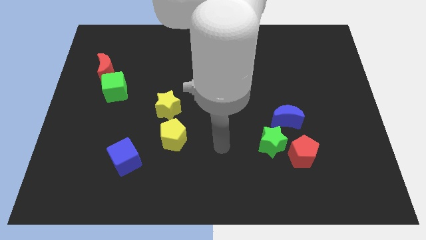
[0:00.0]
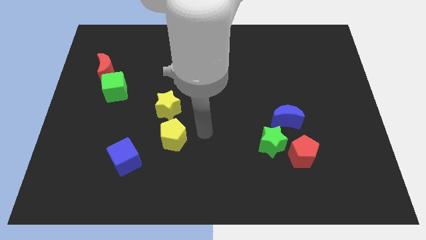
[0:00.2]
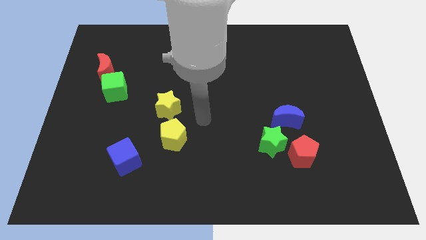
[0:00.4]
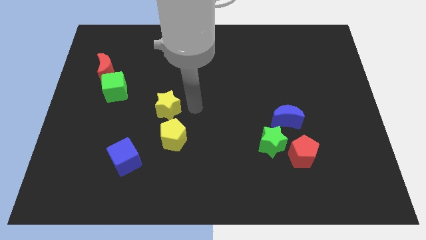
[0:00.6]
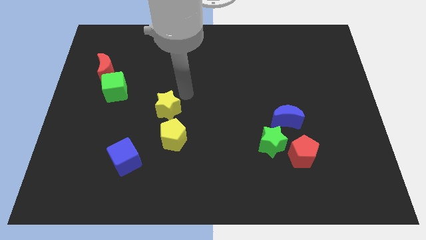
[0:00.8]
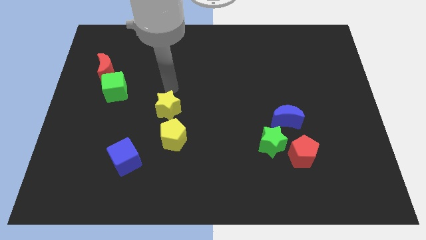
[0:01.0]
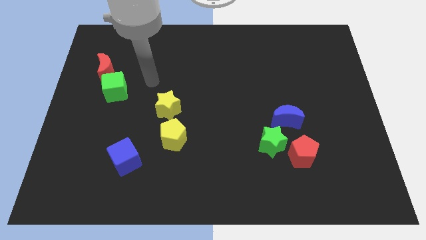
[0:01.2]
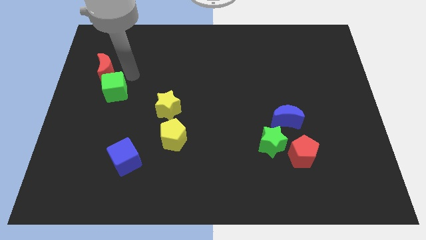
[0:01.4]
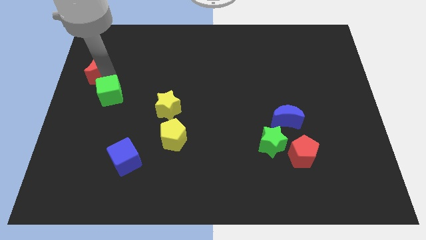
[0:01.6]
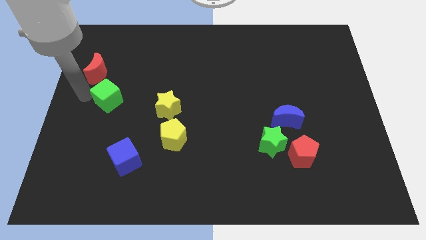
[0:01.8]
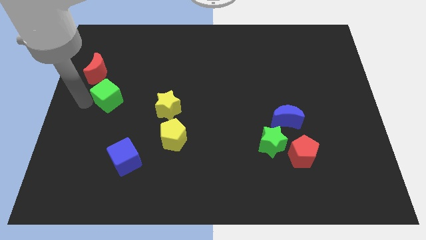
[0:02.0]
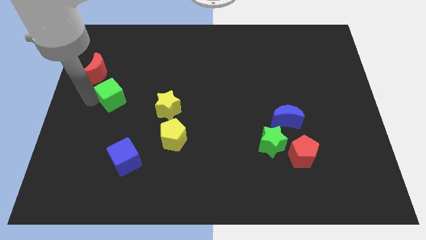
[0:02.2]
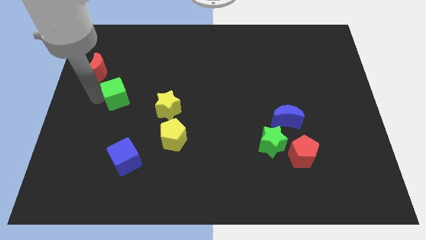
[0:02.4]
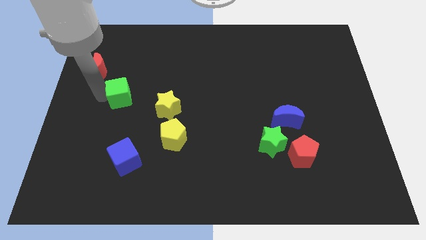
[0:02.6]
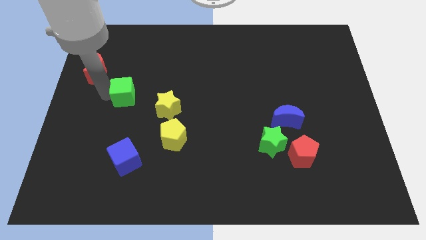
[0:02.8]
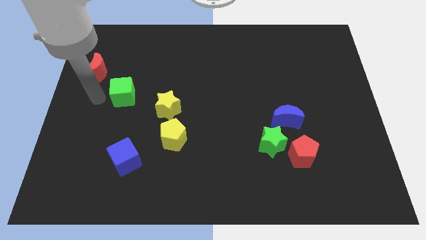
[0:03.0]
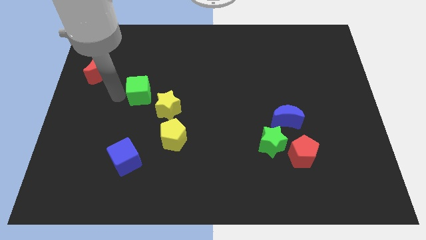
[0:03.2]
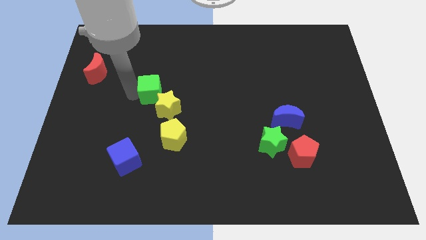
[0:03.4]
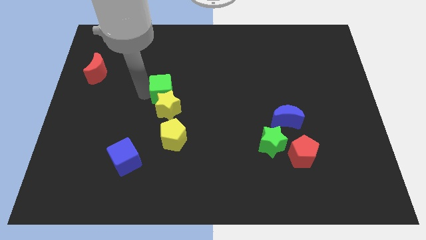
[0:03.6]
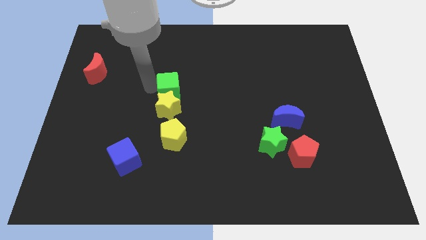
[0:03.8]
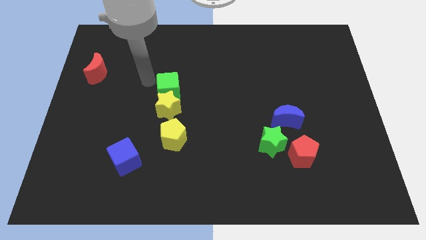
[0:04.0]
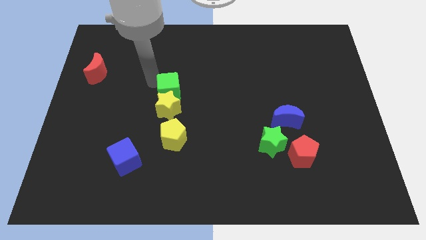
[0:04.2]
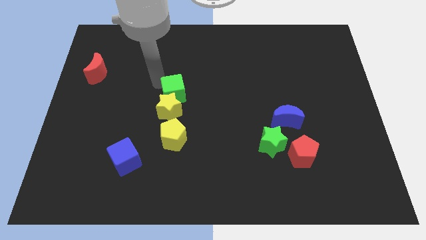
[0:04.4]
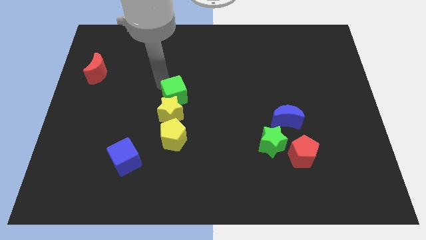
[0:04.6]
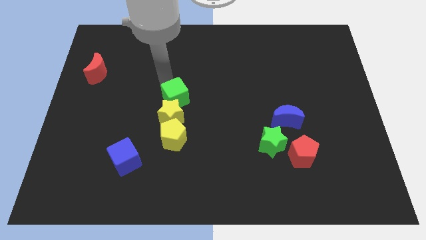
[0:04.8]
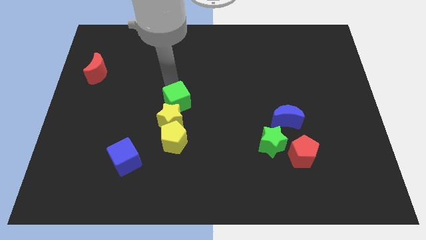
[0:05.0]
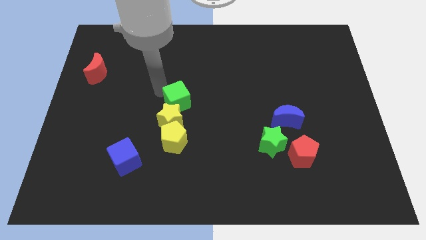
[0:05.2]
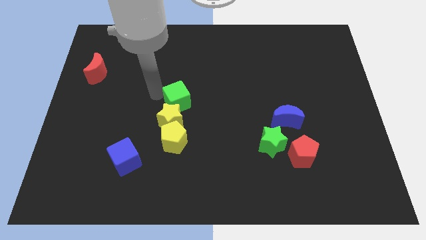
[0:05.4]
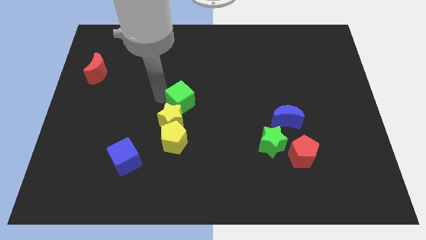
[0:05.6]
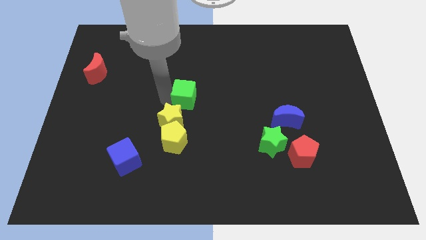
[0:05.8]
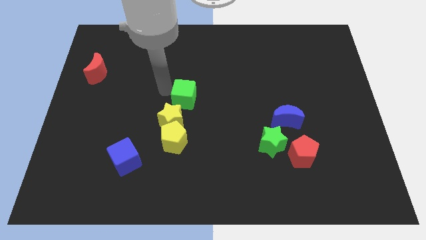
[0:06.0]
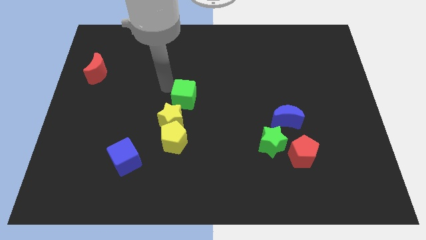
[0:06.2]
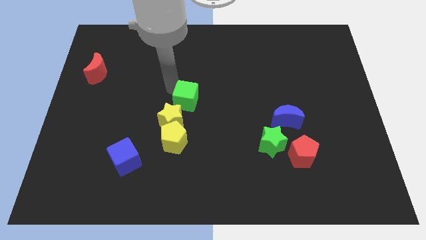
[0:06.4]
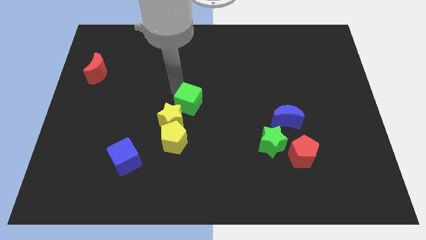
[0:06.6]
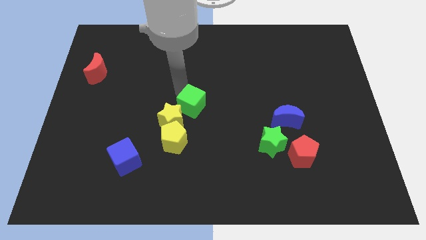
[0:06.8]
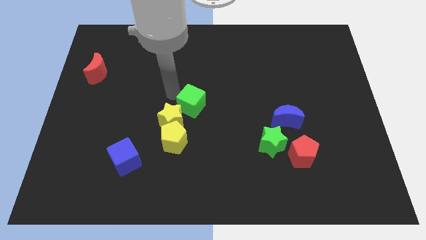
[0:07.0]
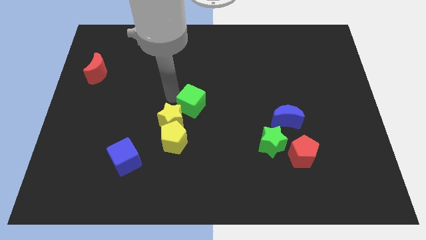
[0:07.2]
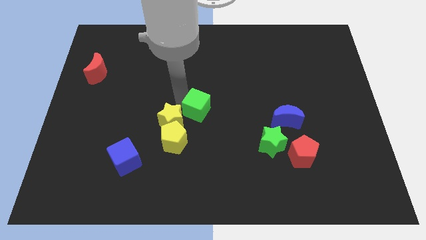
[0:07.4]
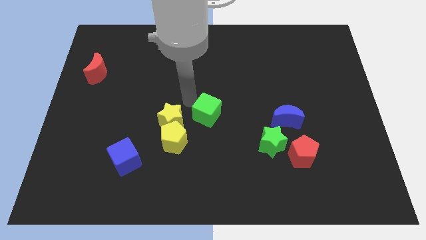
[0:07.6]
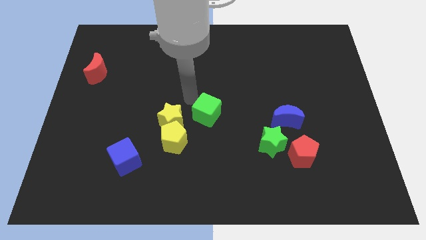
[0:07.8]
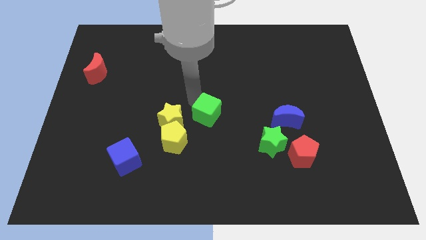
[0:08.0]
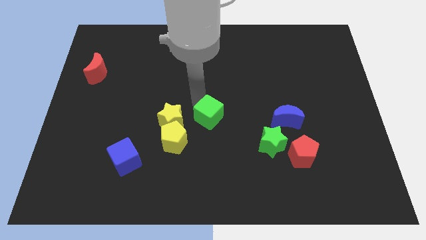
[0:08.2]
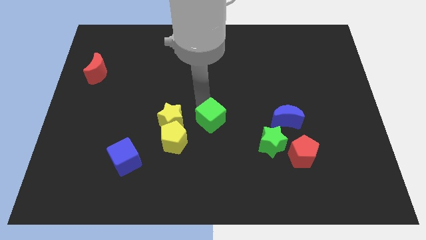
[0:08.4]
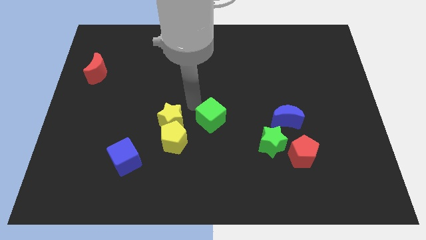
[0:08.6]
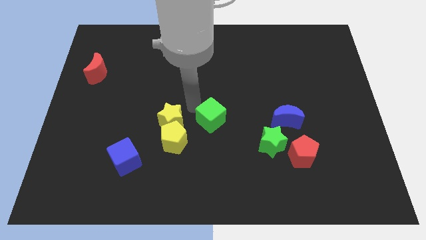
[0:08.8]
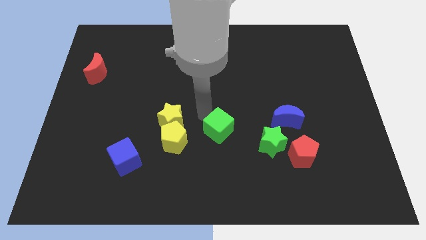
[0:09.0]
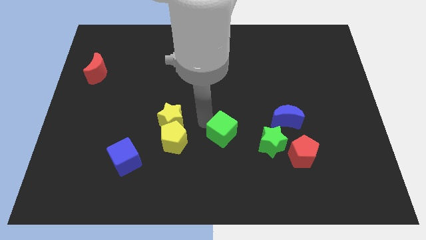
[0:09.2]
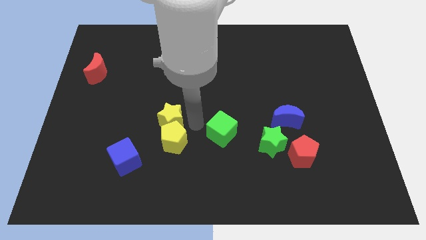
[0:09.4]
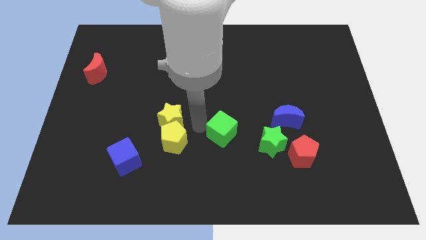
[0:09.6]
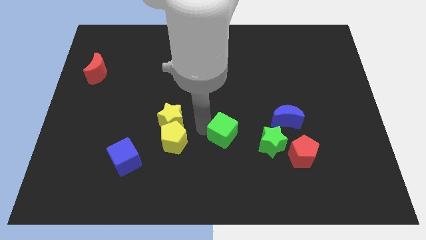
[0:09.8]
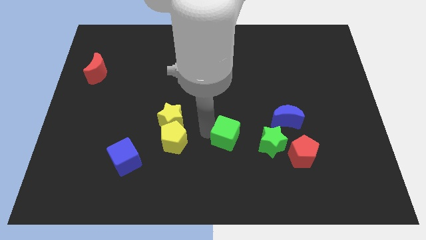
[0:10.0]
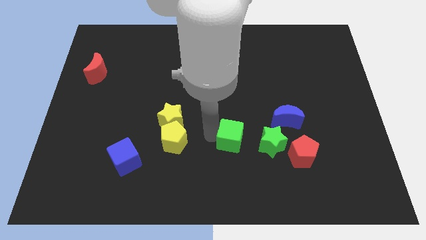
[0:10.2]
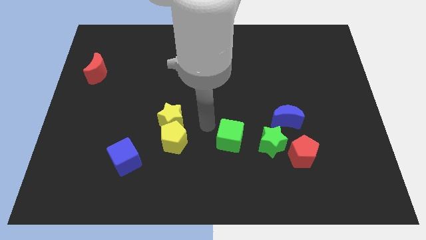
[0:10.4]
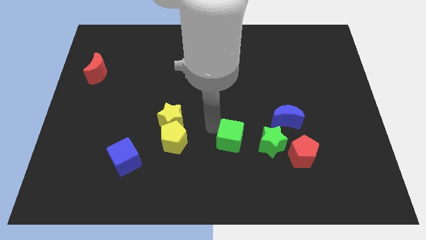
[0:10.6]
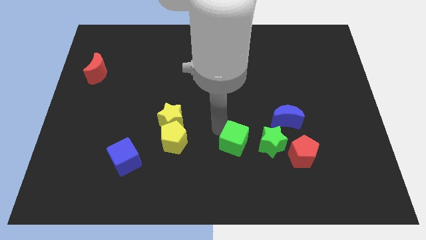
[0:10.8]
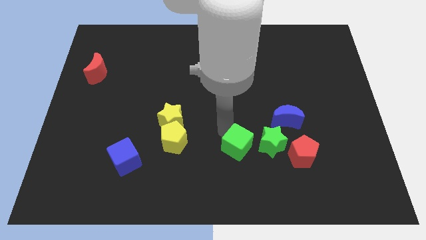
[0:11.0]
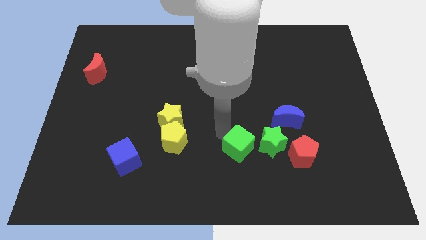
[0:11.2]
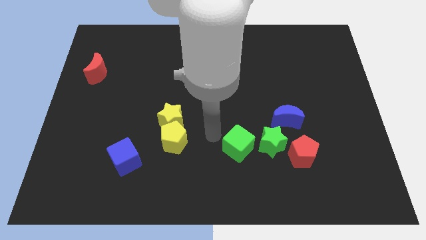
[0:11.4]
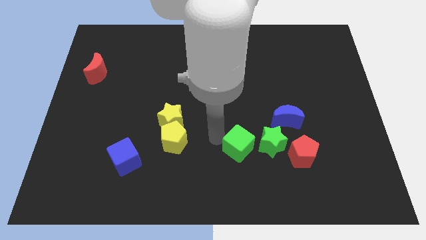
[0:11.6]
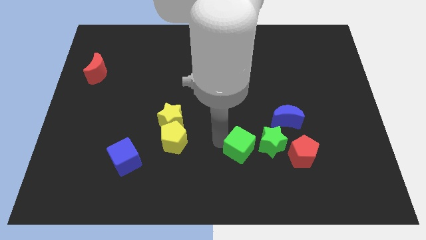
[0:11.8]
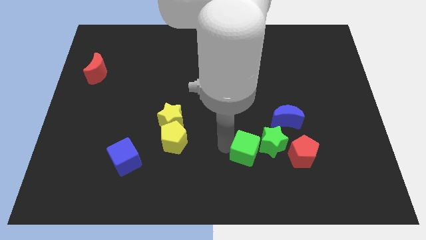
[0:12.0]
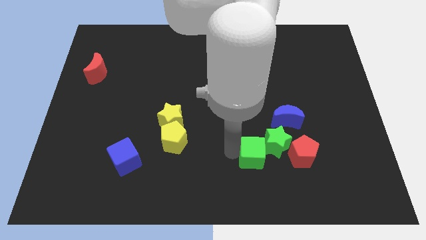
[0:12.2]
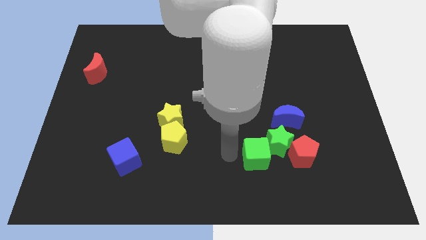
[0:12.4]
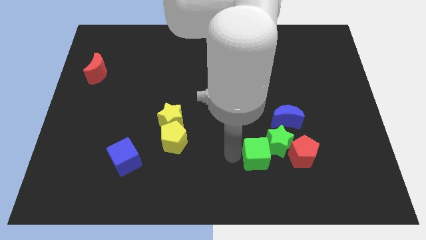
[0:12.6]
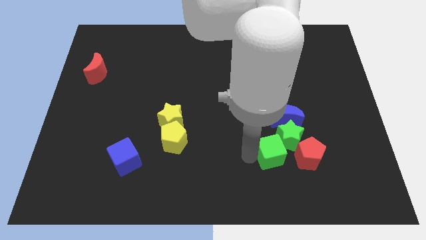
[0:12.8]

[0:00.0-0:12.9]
move the green cube to the bottom of the blue moon
